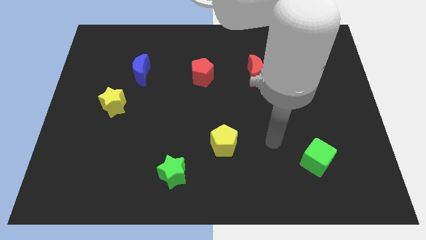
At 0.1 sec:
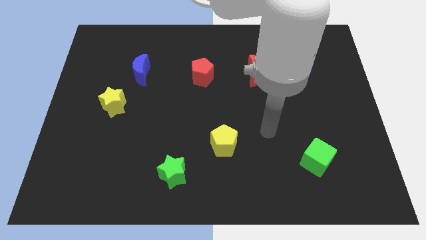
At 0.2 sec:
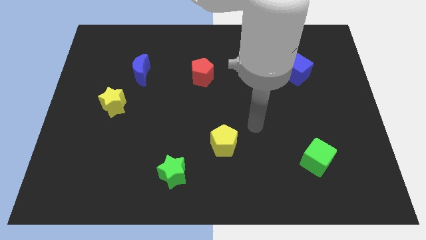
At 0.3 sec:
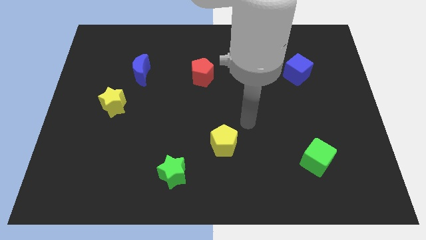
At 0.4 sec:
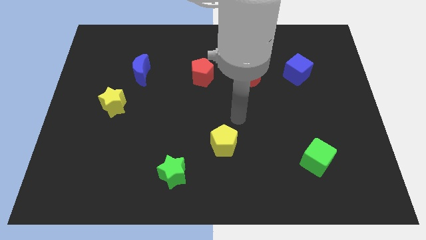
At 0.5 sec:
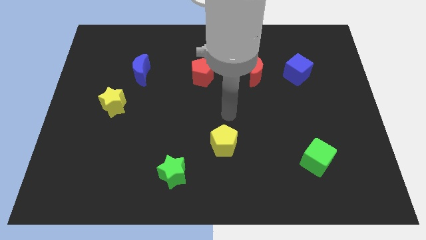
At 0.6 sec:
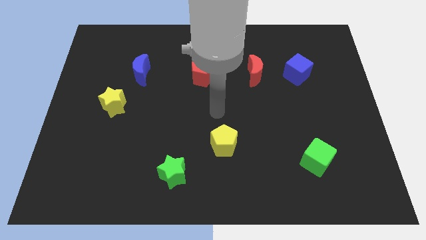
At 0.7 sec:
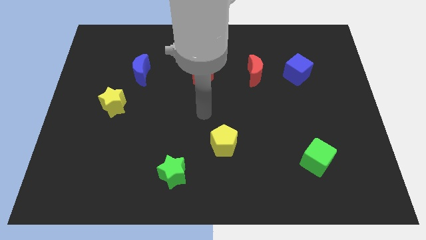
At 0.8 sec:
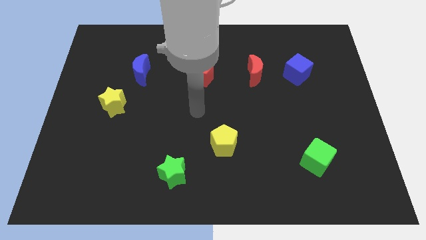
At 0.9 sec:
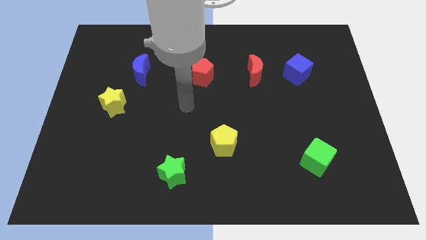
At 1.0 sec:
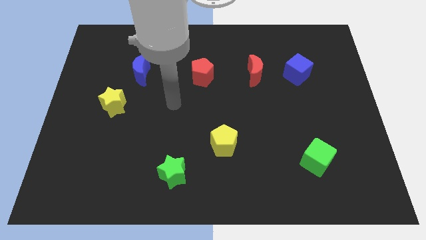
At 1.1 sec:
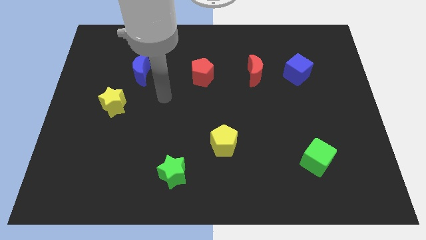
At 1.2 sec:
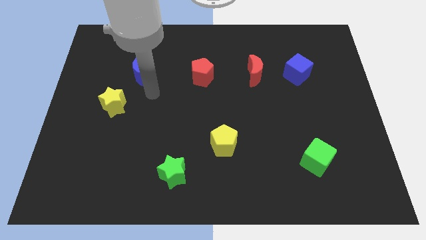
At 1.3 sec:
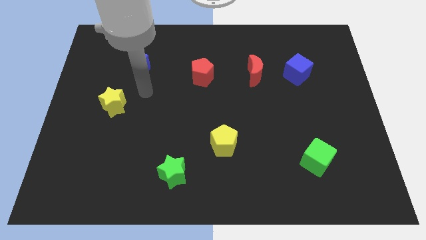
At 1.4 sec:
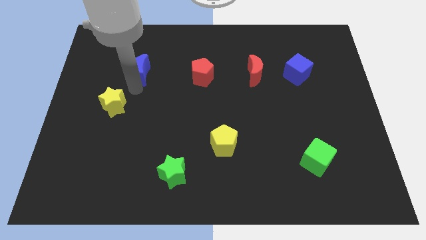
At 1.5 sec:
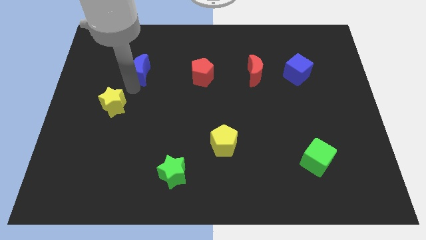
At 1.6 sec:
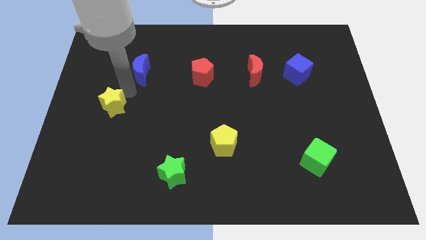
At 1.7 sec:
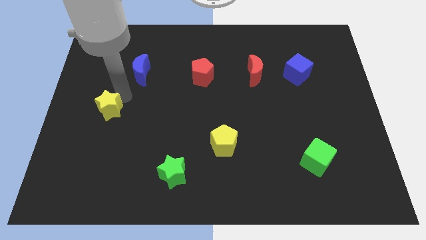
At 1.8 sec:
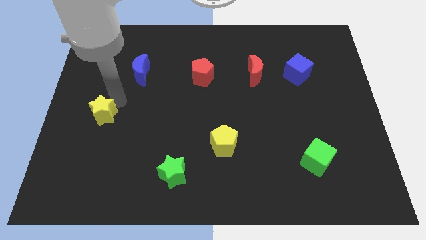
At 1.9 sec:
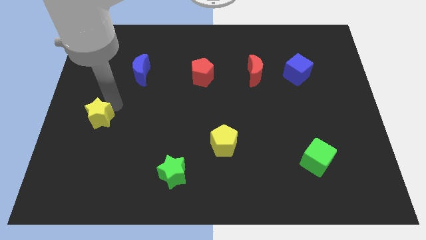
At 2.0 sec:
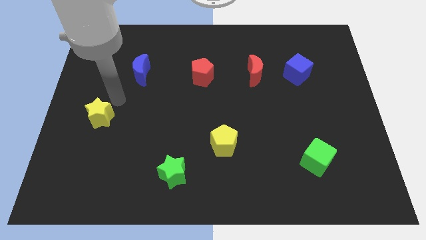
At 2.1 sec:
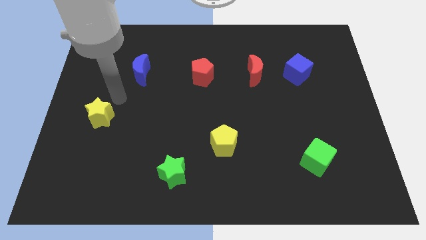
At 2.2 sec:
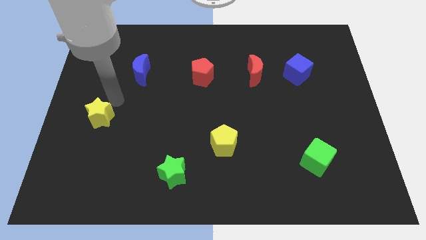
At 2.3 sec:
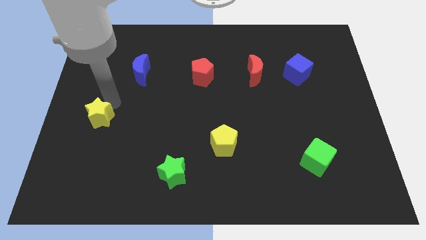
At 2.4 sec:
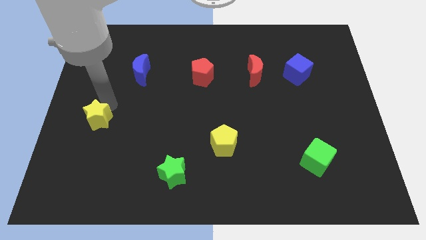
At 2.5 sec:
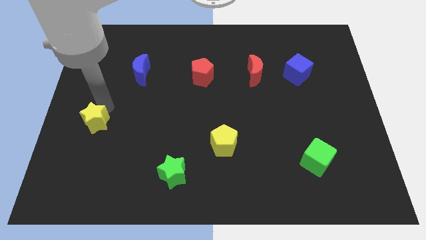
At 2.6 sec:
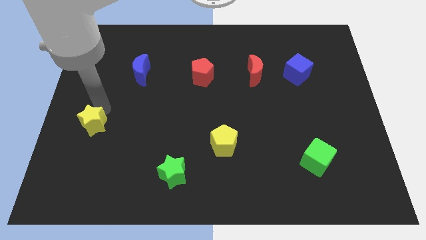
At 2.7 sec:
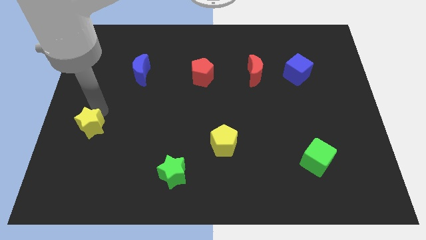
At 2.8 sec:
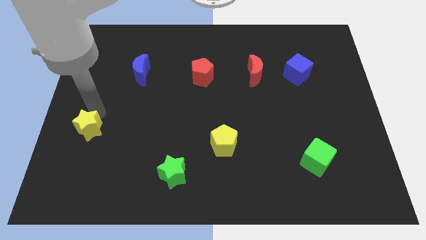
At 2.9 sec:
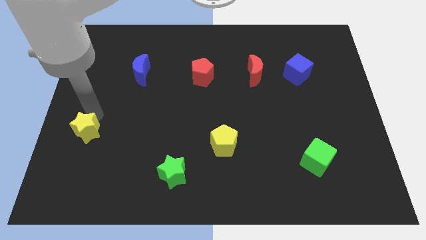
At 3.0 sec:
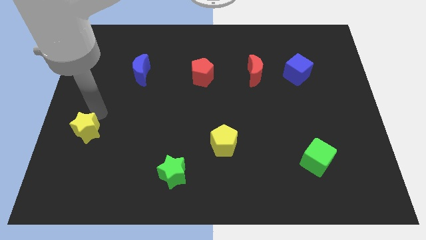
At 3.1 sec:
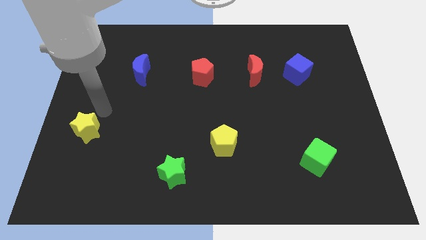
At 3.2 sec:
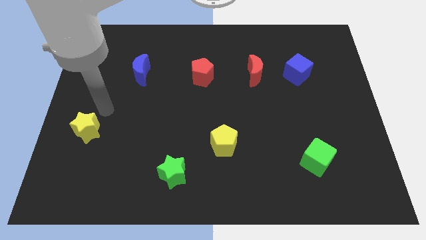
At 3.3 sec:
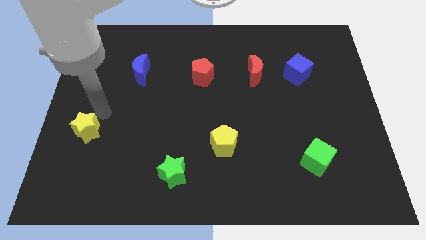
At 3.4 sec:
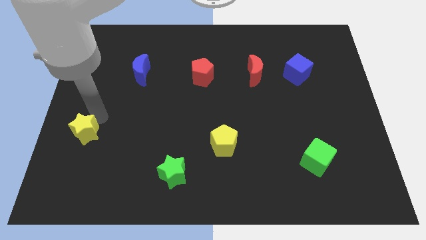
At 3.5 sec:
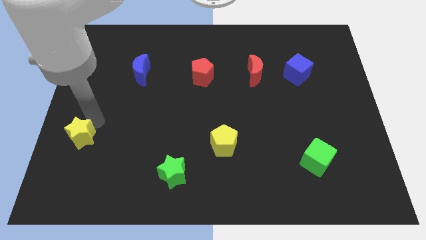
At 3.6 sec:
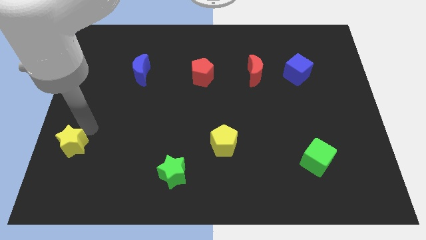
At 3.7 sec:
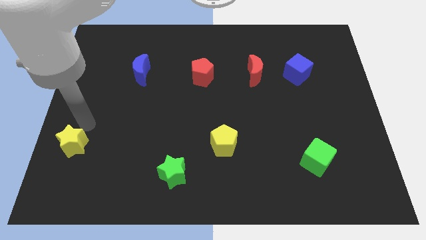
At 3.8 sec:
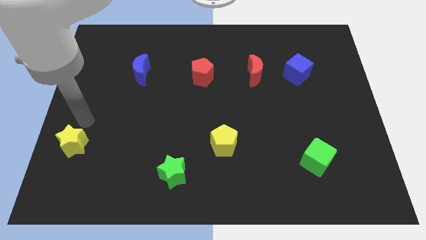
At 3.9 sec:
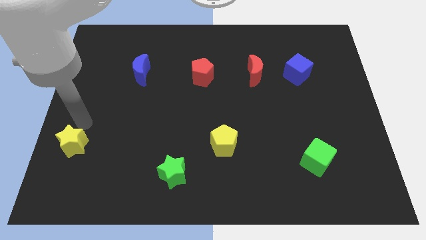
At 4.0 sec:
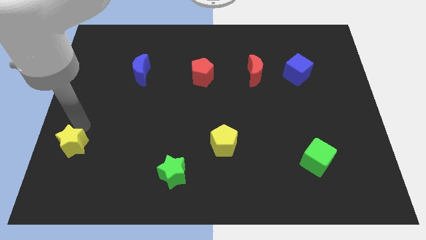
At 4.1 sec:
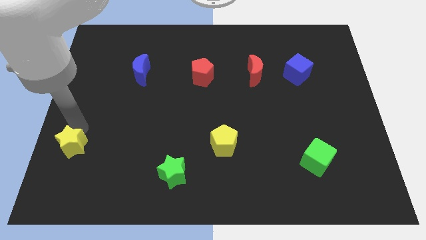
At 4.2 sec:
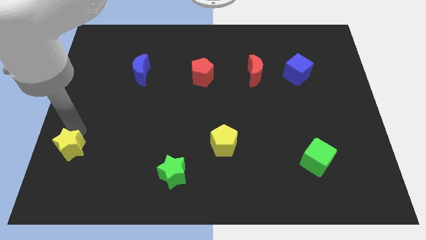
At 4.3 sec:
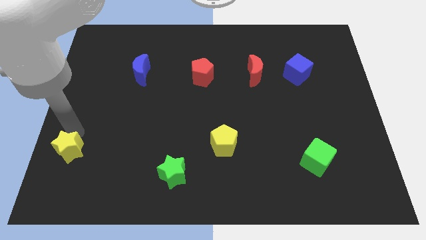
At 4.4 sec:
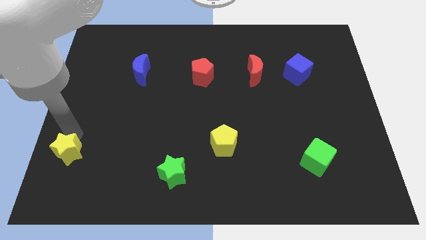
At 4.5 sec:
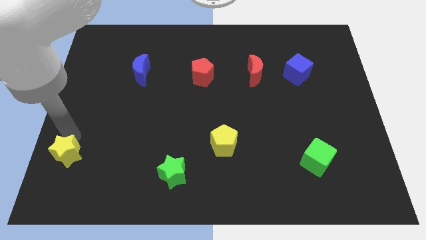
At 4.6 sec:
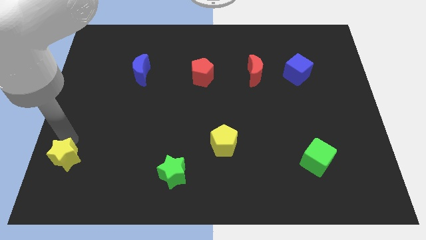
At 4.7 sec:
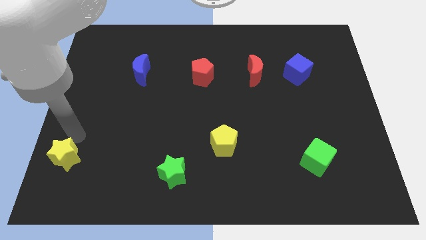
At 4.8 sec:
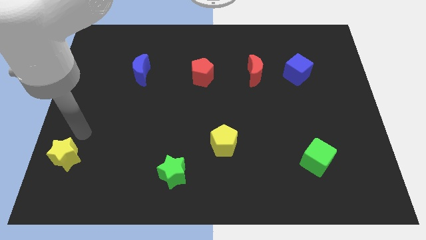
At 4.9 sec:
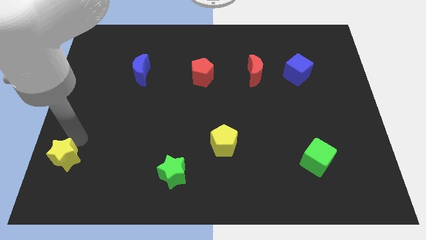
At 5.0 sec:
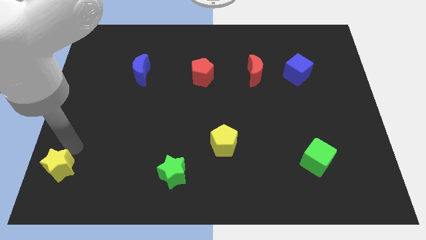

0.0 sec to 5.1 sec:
put the yellow star to the bottom left

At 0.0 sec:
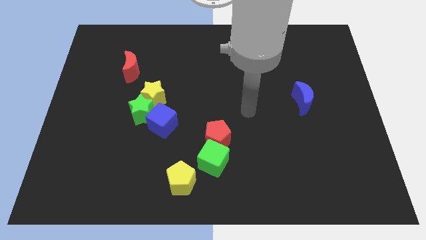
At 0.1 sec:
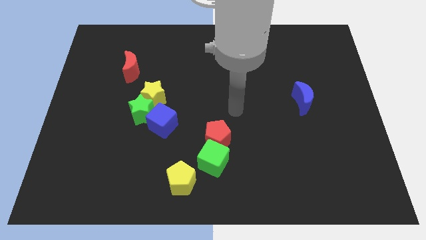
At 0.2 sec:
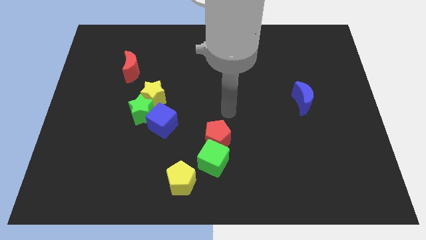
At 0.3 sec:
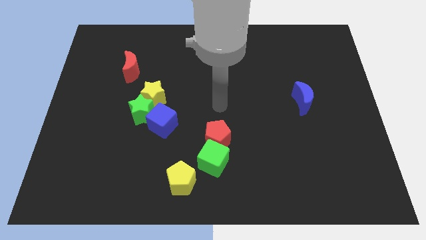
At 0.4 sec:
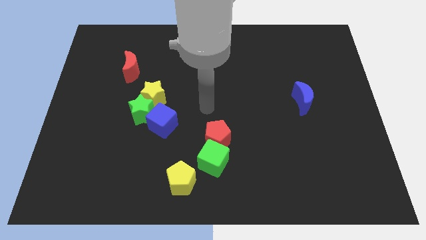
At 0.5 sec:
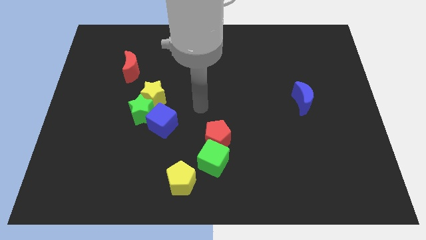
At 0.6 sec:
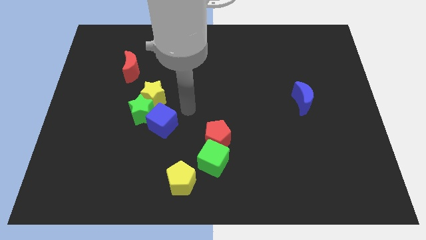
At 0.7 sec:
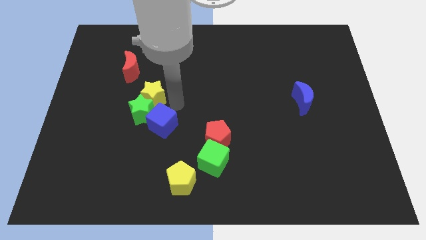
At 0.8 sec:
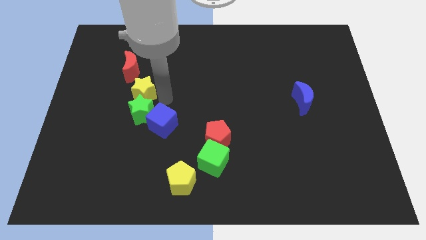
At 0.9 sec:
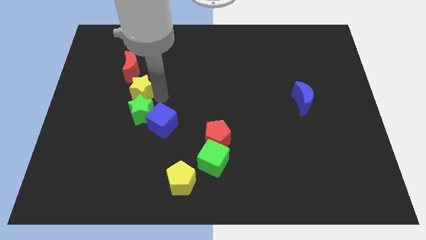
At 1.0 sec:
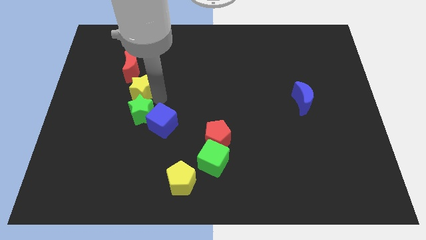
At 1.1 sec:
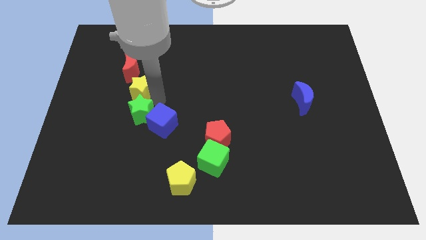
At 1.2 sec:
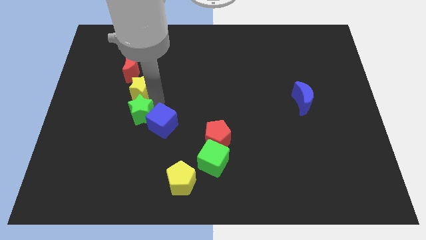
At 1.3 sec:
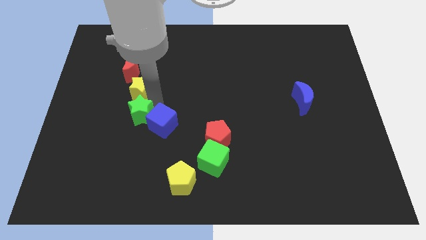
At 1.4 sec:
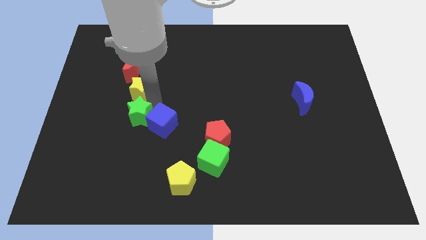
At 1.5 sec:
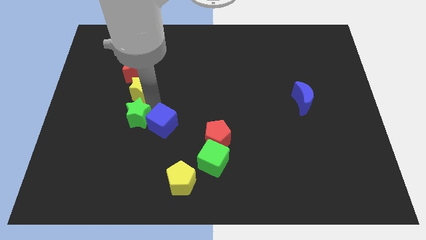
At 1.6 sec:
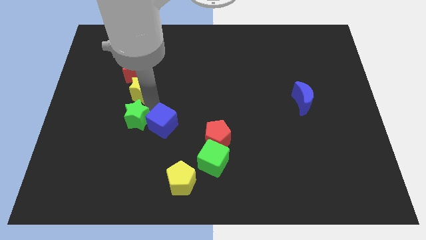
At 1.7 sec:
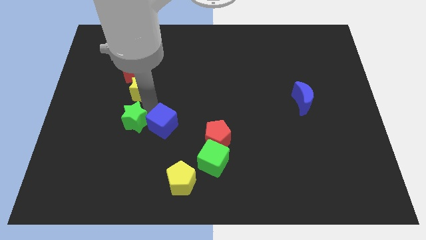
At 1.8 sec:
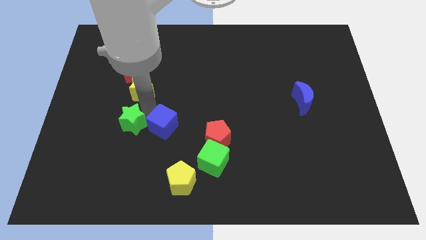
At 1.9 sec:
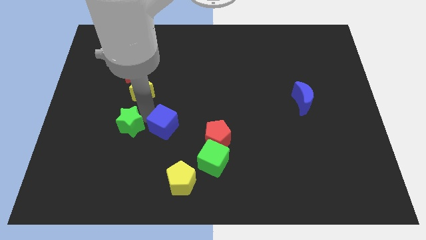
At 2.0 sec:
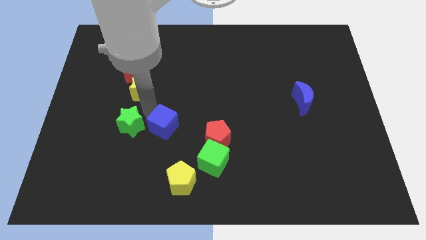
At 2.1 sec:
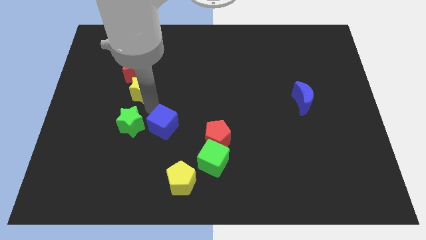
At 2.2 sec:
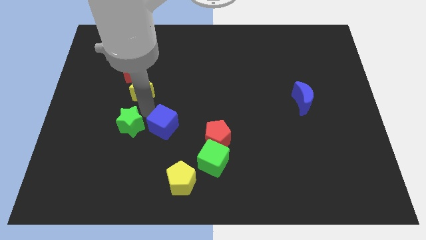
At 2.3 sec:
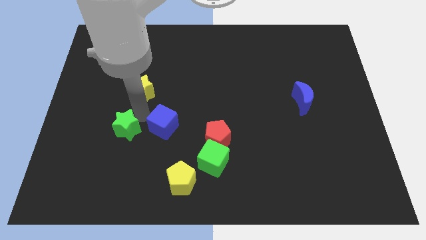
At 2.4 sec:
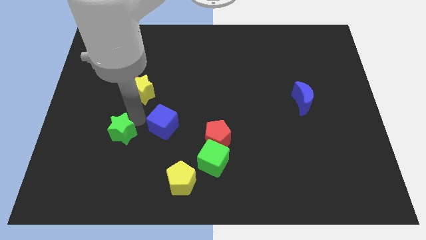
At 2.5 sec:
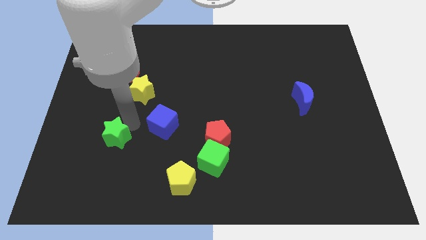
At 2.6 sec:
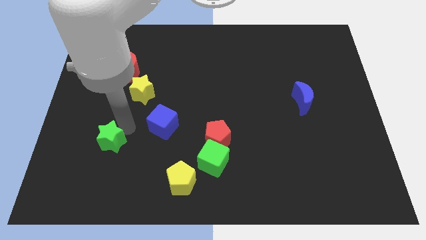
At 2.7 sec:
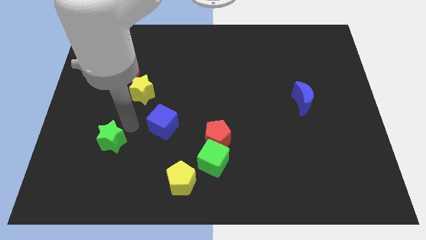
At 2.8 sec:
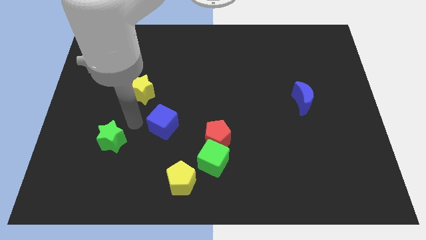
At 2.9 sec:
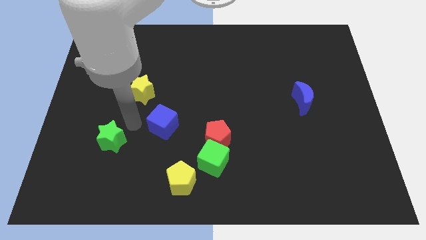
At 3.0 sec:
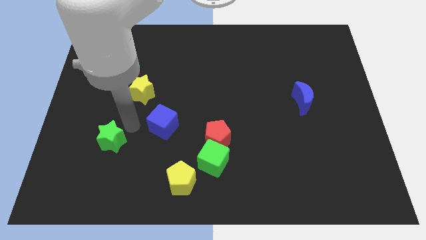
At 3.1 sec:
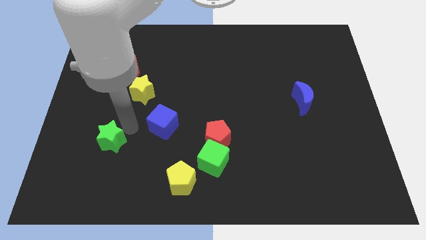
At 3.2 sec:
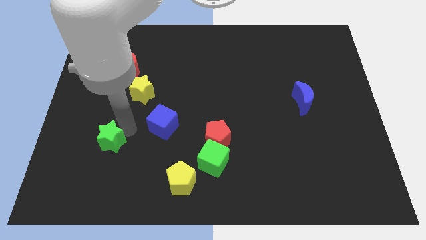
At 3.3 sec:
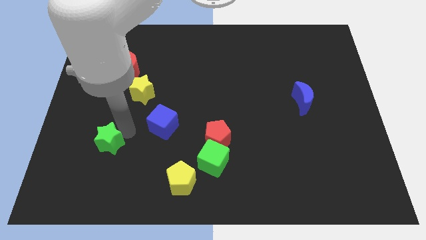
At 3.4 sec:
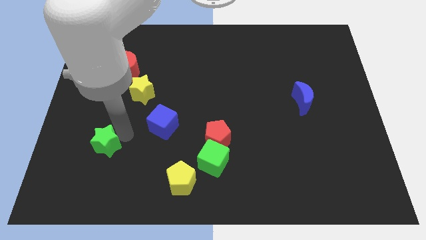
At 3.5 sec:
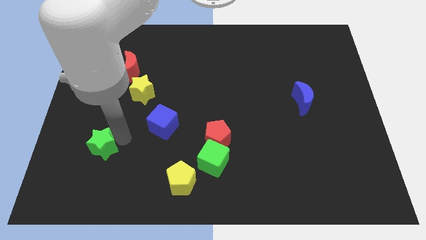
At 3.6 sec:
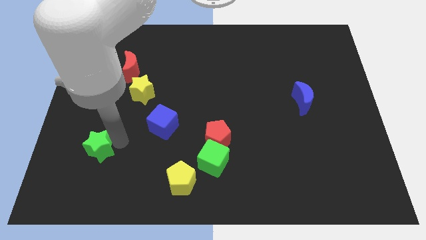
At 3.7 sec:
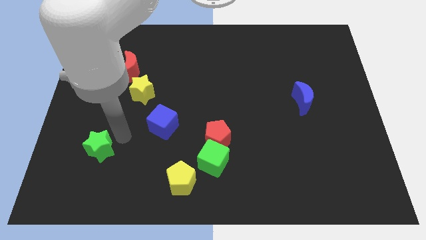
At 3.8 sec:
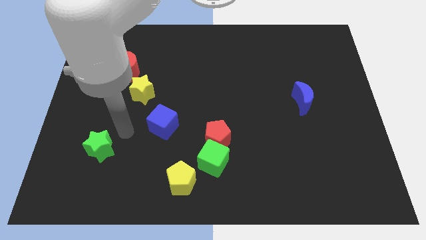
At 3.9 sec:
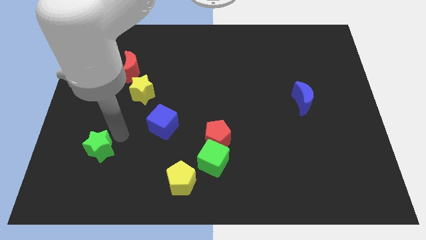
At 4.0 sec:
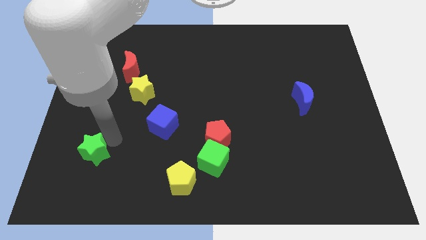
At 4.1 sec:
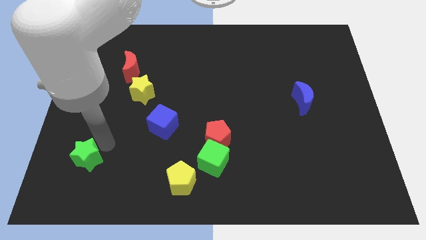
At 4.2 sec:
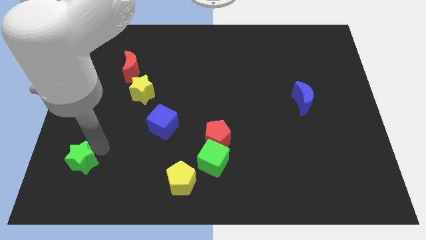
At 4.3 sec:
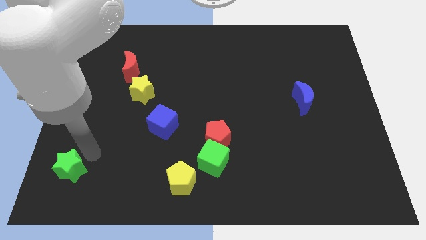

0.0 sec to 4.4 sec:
move the green star to the bottom left
